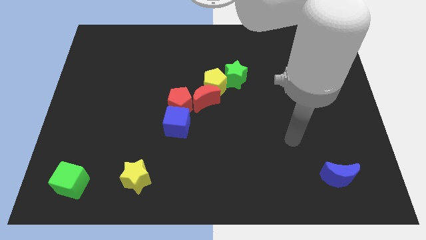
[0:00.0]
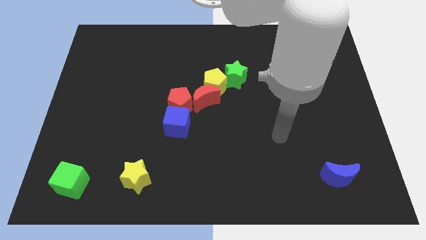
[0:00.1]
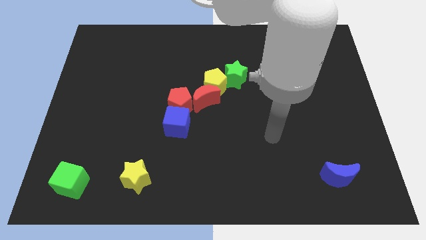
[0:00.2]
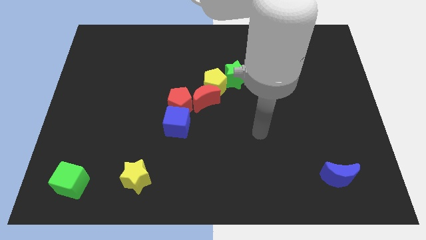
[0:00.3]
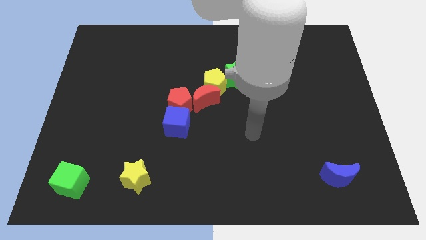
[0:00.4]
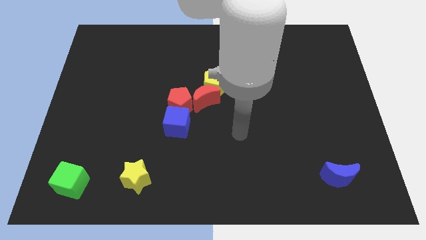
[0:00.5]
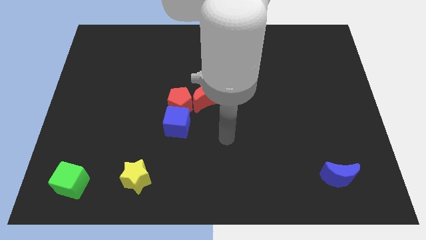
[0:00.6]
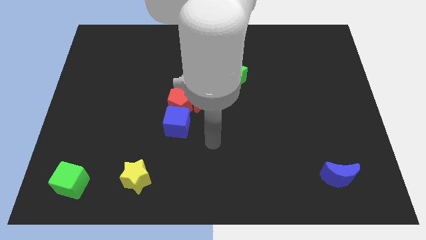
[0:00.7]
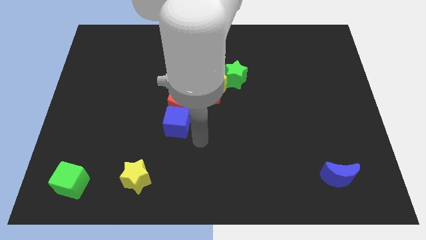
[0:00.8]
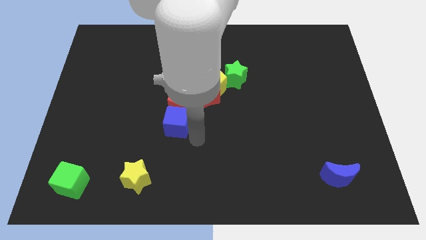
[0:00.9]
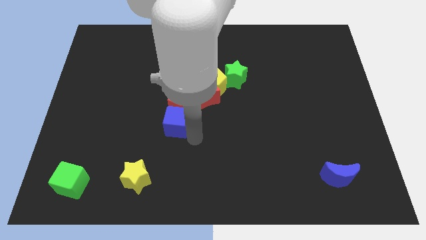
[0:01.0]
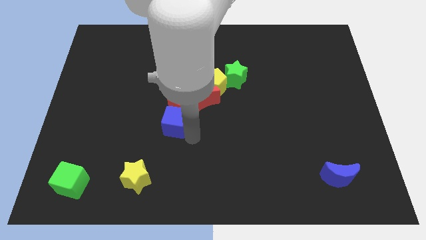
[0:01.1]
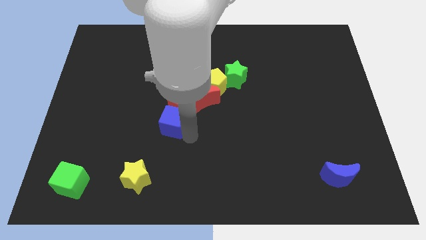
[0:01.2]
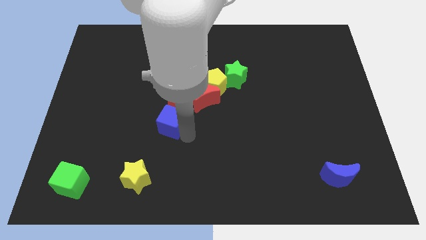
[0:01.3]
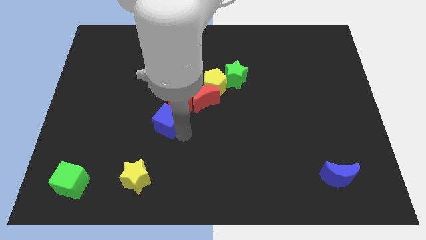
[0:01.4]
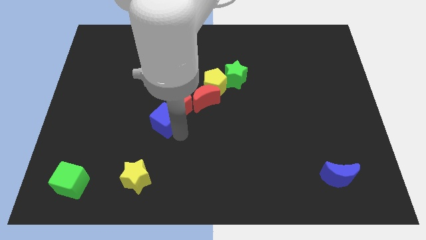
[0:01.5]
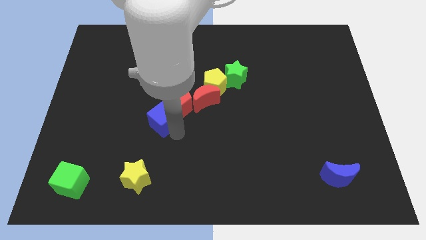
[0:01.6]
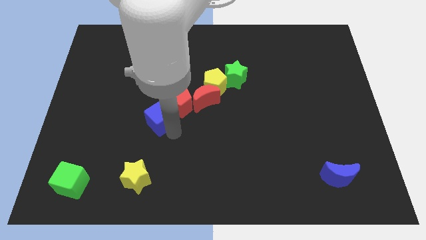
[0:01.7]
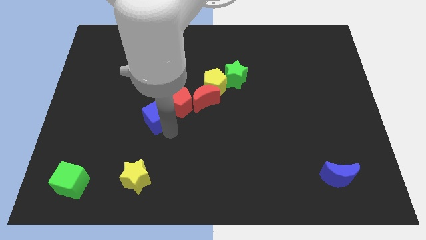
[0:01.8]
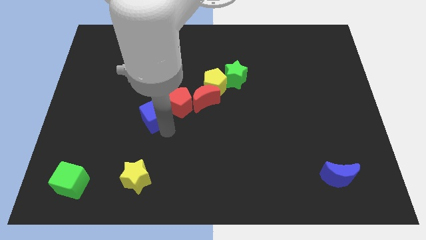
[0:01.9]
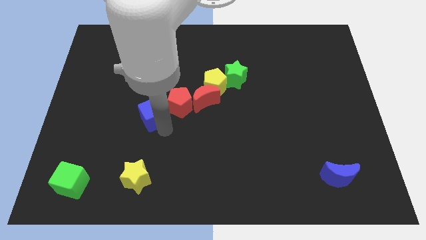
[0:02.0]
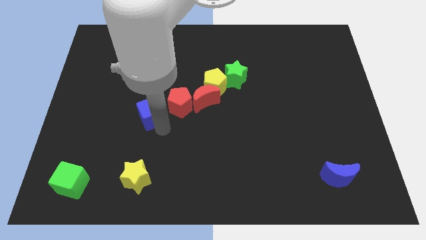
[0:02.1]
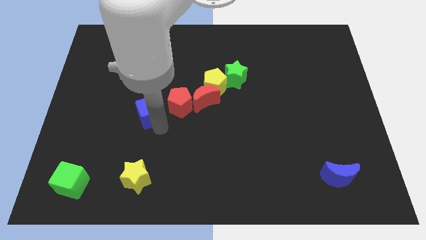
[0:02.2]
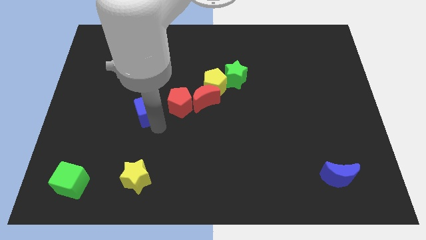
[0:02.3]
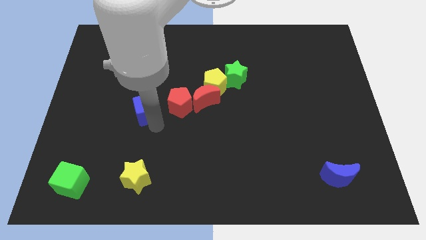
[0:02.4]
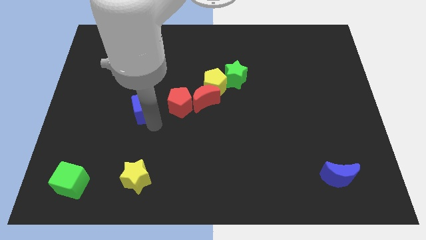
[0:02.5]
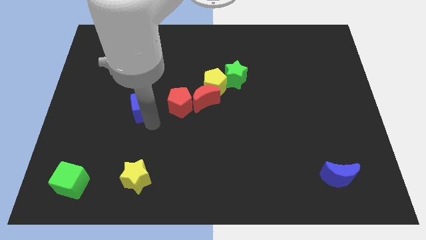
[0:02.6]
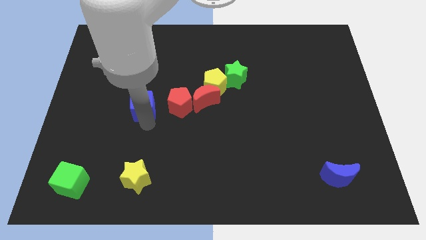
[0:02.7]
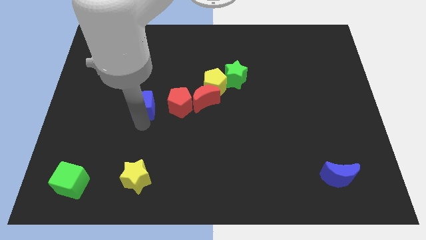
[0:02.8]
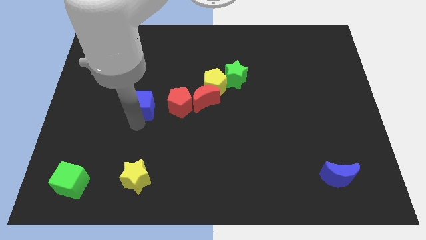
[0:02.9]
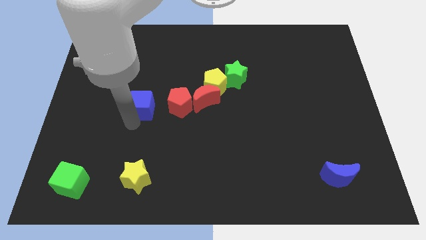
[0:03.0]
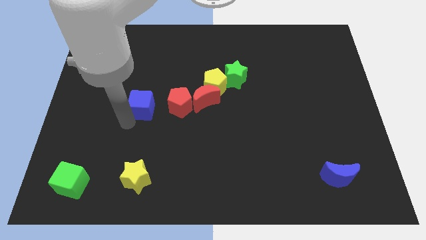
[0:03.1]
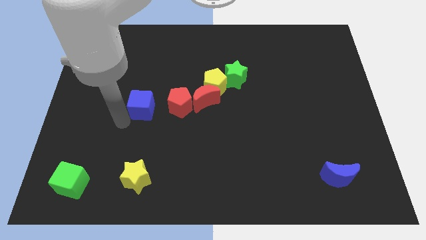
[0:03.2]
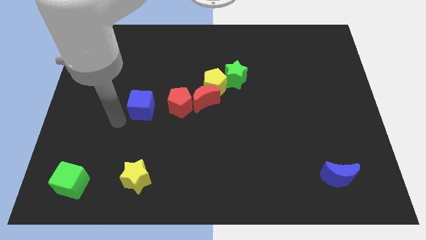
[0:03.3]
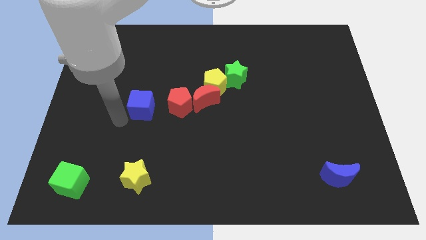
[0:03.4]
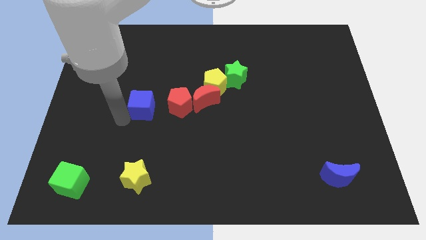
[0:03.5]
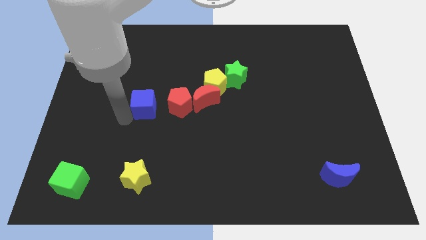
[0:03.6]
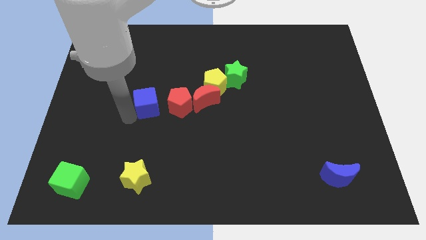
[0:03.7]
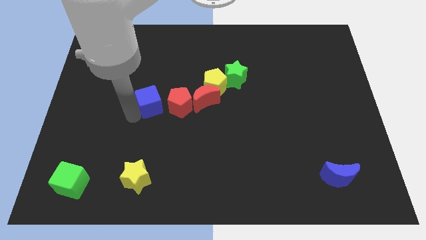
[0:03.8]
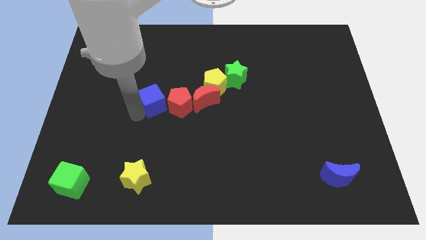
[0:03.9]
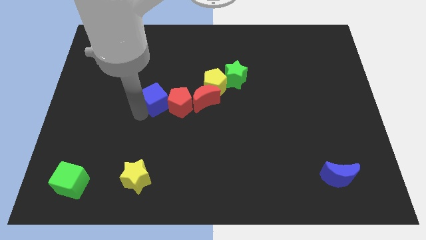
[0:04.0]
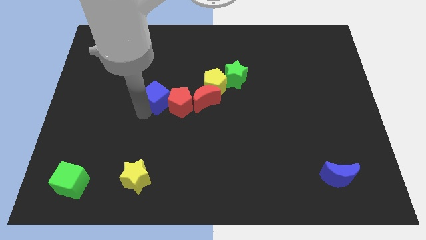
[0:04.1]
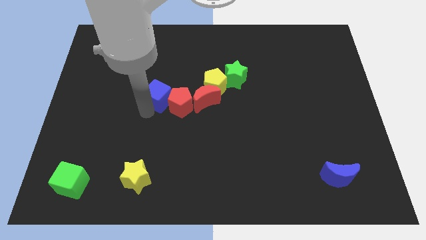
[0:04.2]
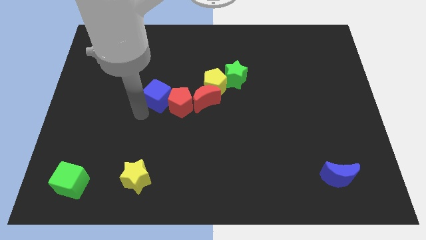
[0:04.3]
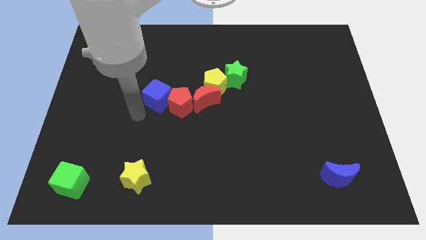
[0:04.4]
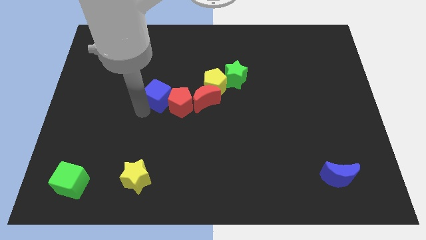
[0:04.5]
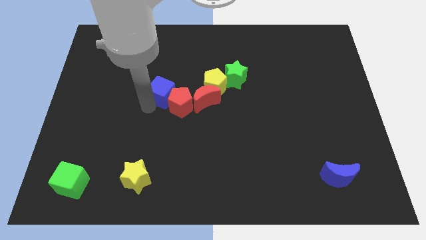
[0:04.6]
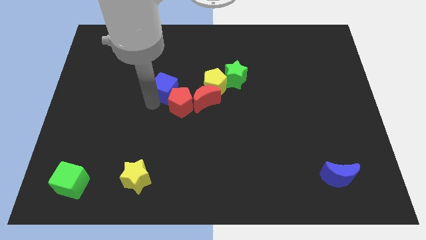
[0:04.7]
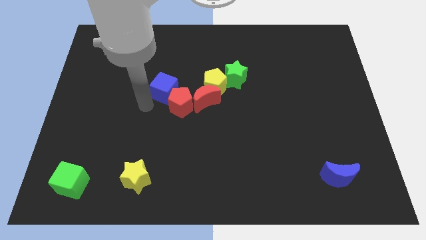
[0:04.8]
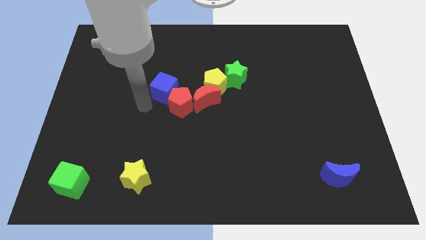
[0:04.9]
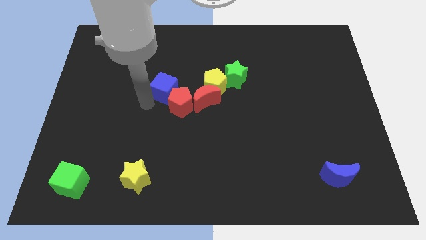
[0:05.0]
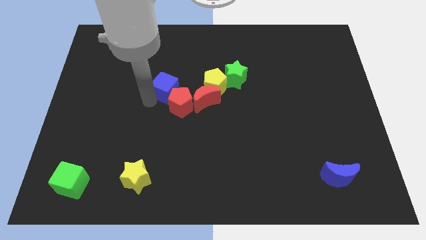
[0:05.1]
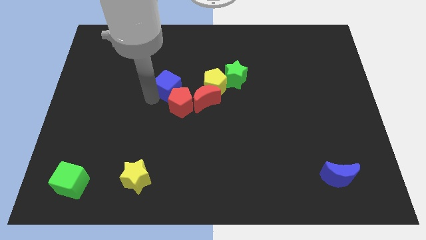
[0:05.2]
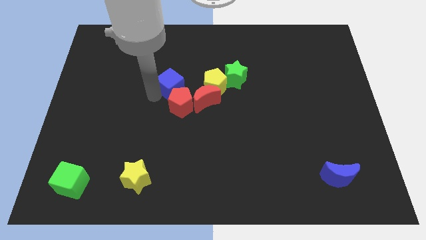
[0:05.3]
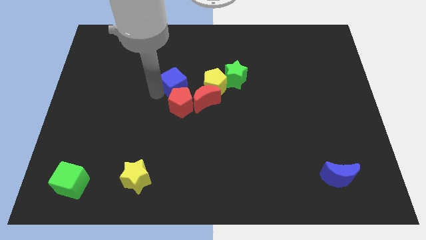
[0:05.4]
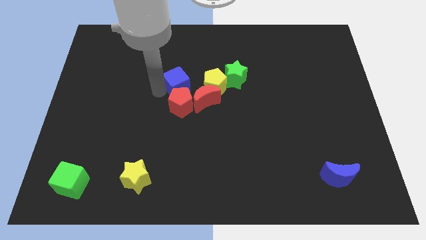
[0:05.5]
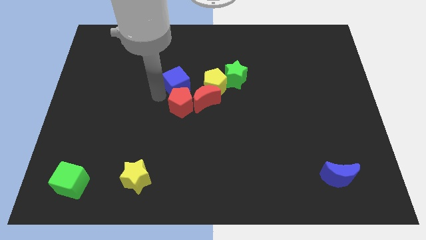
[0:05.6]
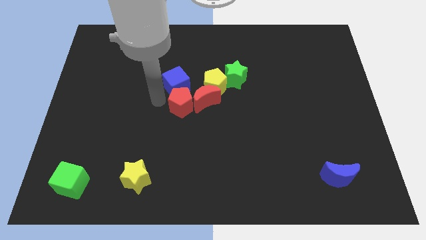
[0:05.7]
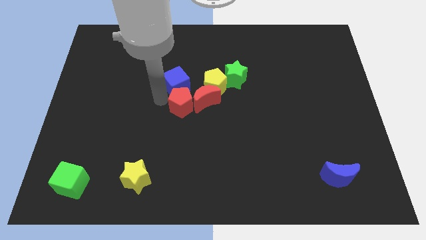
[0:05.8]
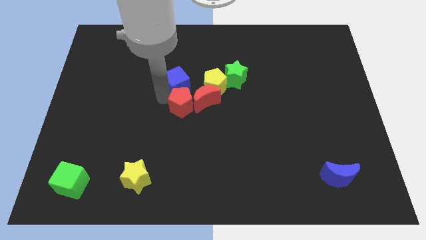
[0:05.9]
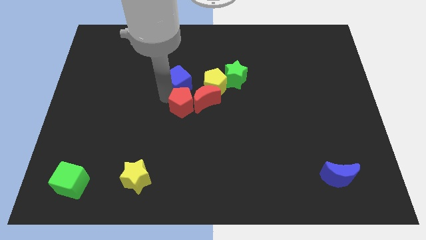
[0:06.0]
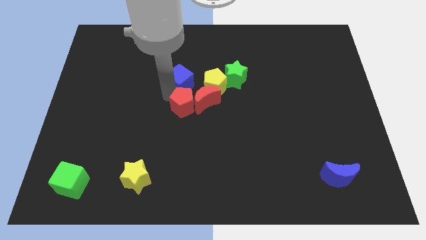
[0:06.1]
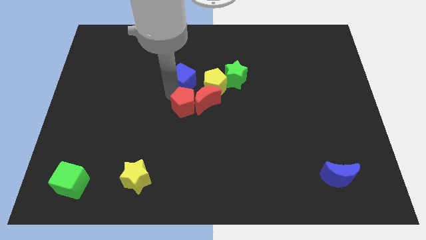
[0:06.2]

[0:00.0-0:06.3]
push the blue cube diagonally up and to the left of the yellow pentagon

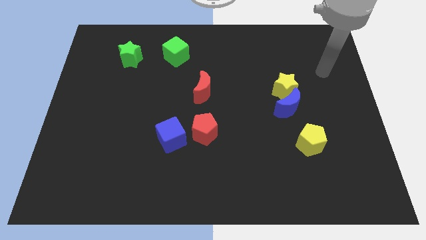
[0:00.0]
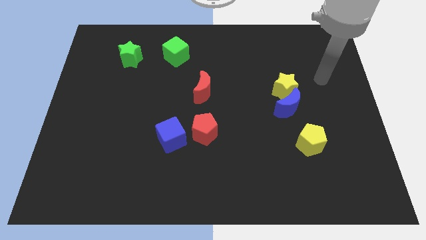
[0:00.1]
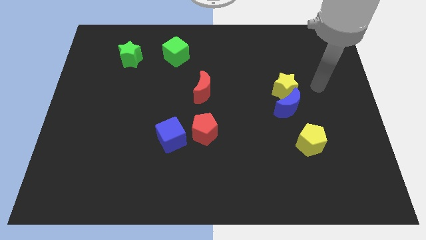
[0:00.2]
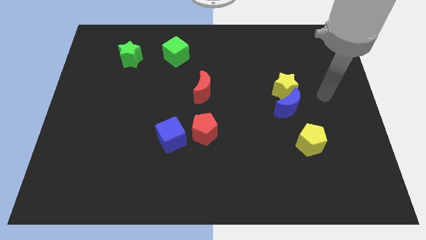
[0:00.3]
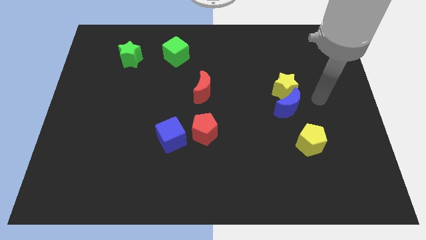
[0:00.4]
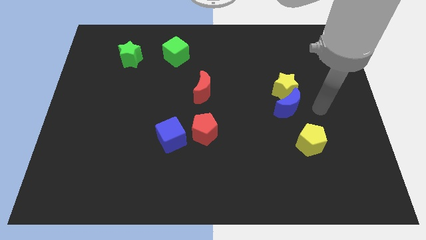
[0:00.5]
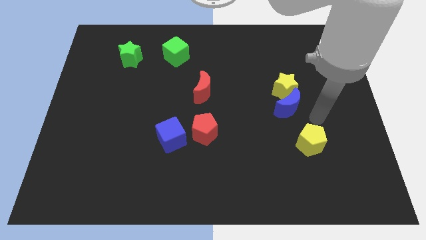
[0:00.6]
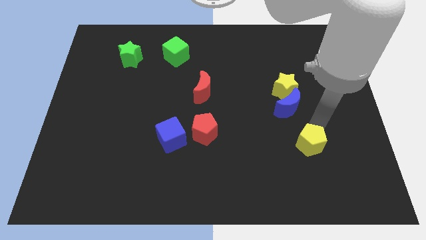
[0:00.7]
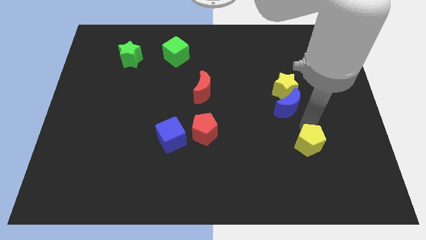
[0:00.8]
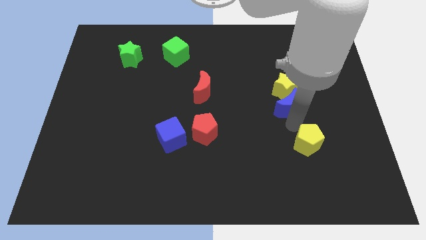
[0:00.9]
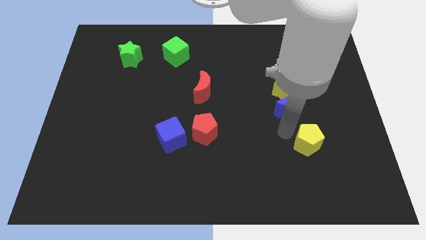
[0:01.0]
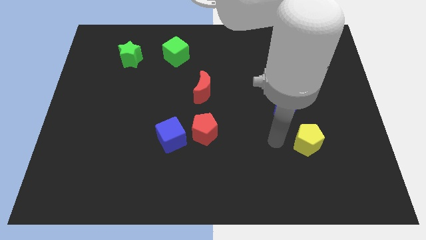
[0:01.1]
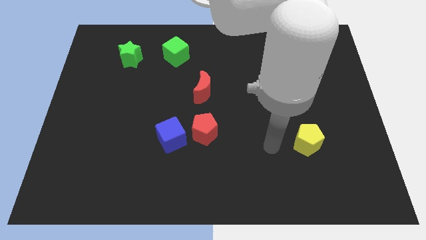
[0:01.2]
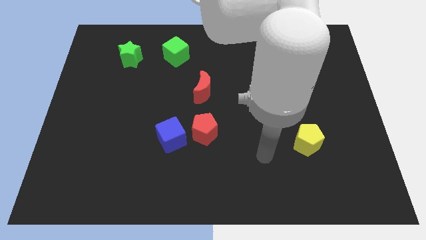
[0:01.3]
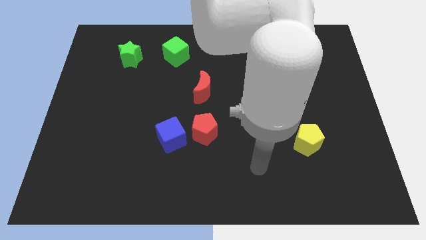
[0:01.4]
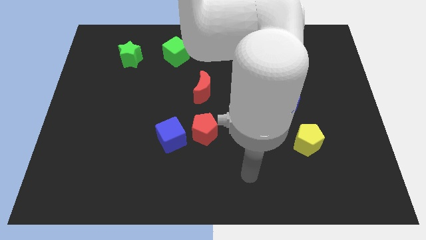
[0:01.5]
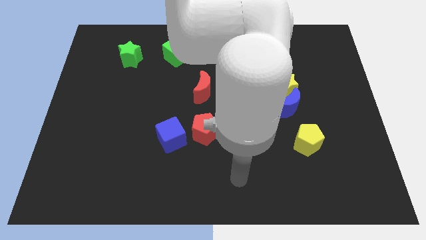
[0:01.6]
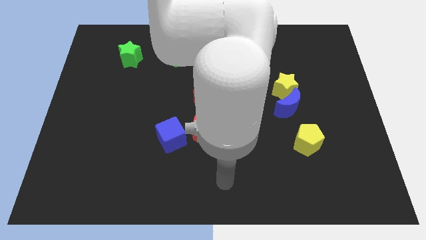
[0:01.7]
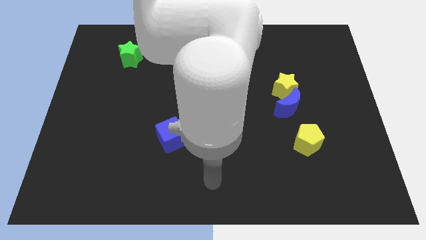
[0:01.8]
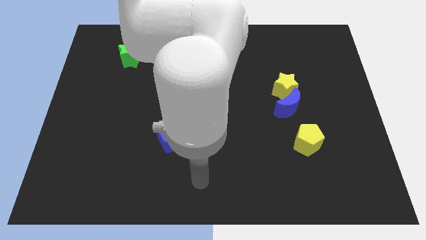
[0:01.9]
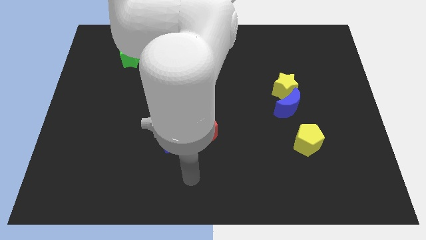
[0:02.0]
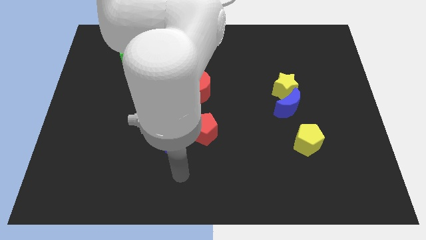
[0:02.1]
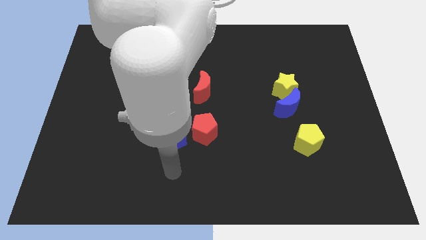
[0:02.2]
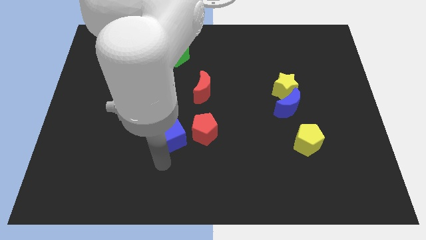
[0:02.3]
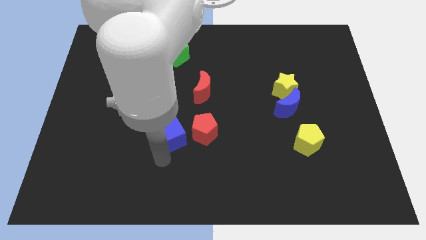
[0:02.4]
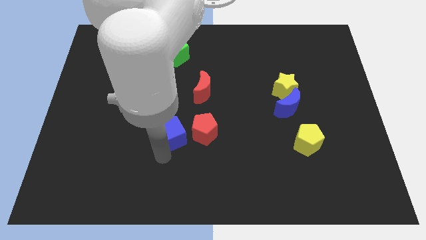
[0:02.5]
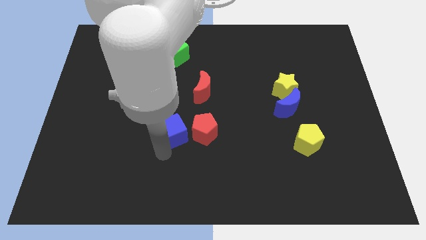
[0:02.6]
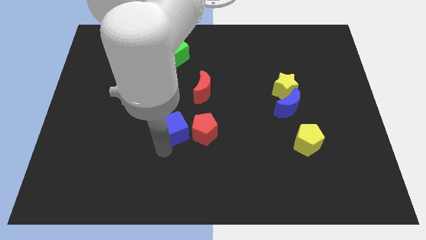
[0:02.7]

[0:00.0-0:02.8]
put the blue cube to the top left of the red pentagon
